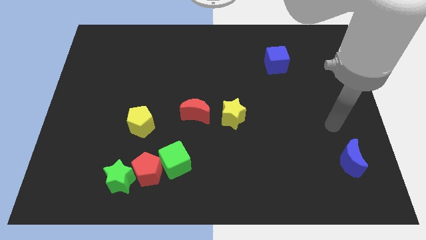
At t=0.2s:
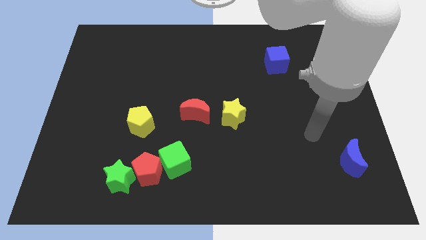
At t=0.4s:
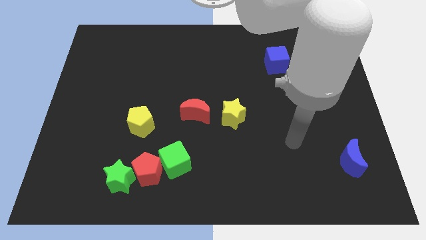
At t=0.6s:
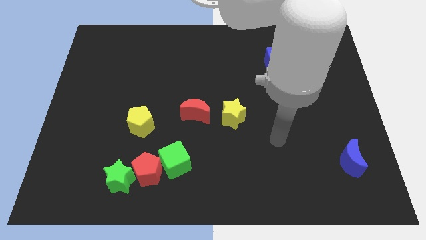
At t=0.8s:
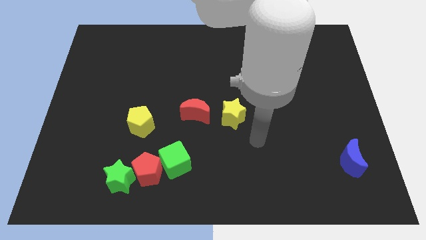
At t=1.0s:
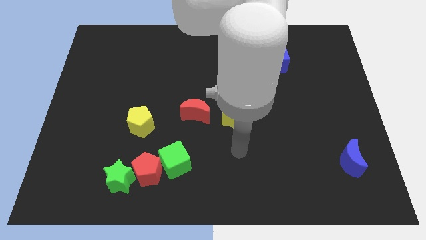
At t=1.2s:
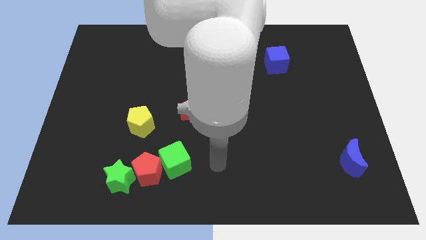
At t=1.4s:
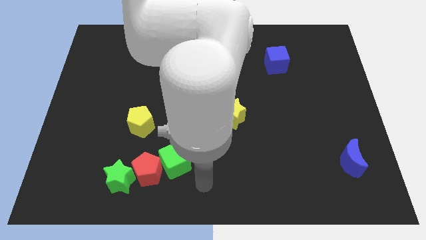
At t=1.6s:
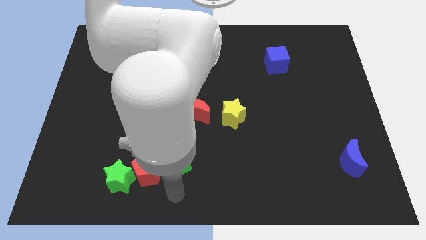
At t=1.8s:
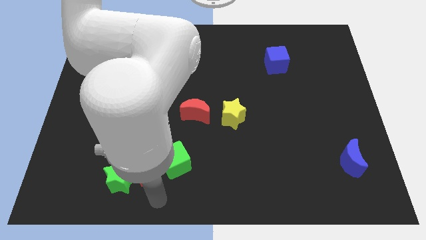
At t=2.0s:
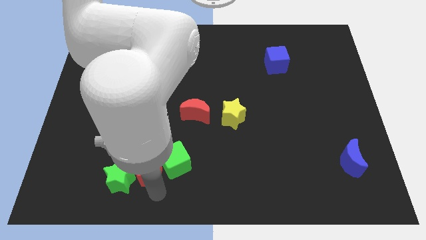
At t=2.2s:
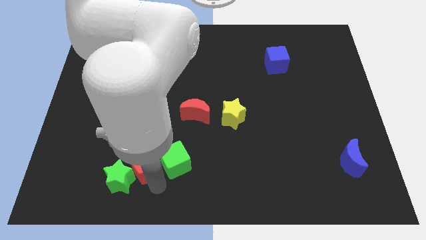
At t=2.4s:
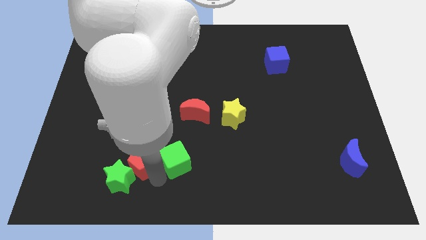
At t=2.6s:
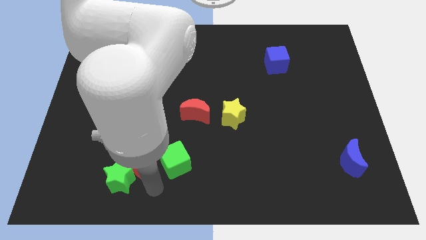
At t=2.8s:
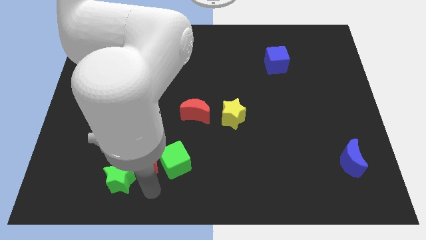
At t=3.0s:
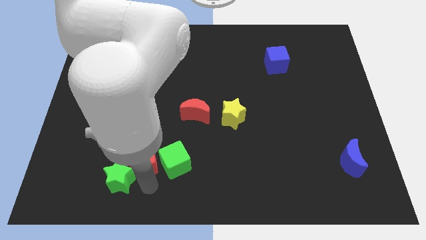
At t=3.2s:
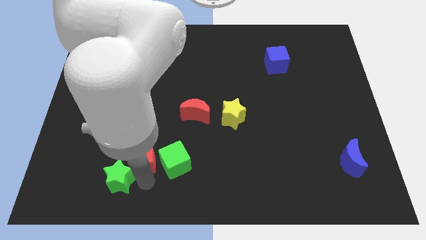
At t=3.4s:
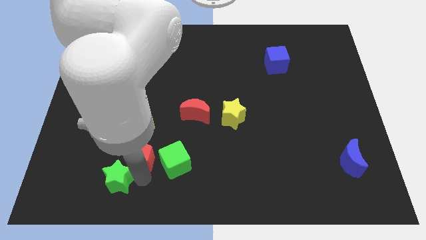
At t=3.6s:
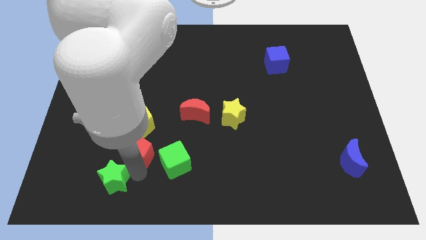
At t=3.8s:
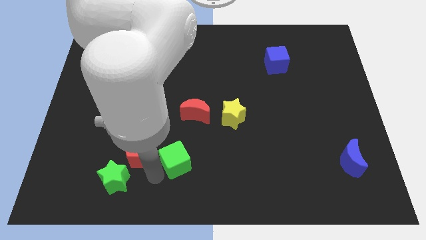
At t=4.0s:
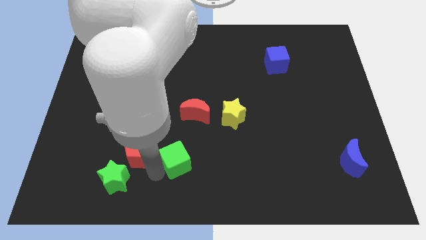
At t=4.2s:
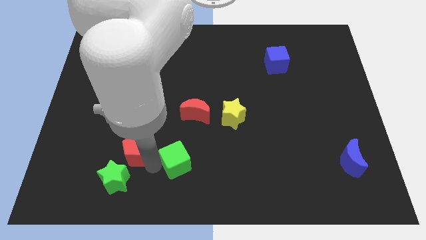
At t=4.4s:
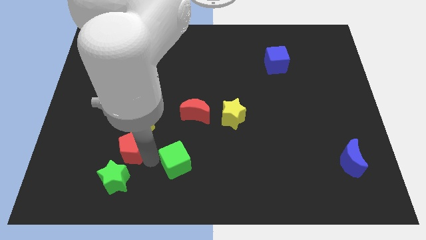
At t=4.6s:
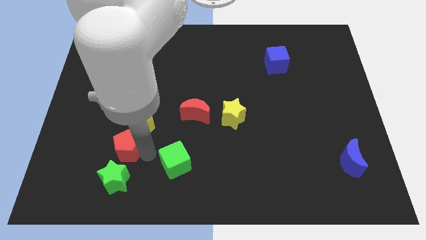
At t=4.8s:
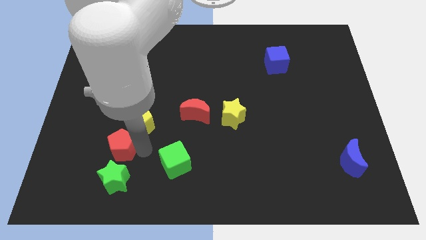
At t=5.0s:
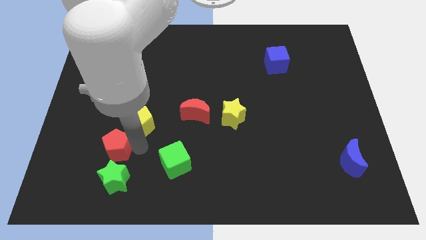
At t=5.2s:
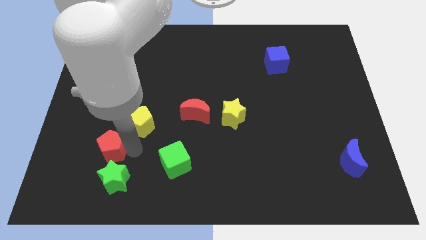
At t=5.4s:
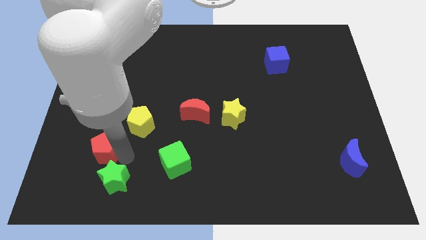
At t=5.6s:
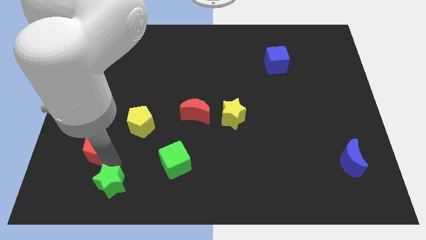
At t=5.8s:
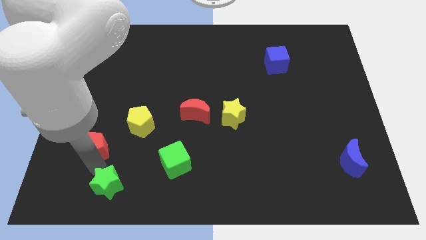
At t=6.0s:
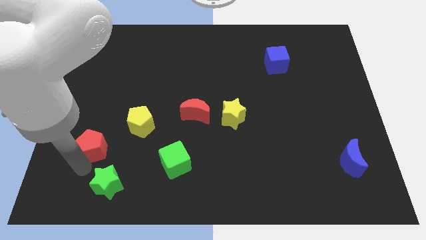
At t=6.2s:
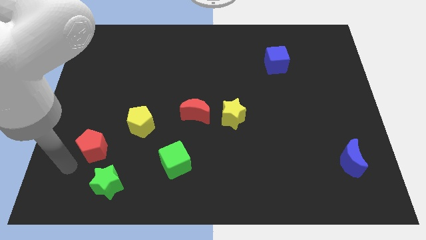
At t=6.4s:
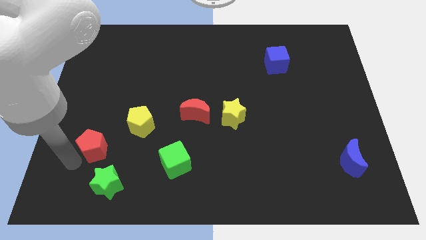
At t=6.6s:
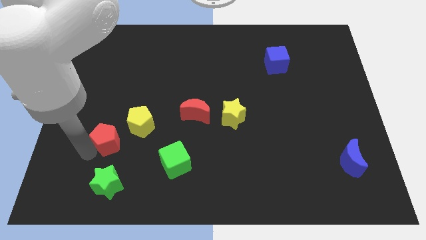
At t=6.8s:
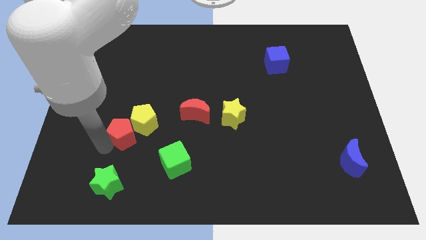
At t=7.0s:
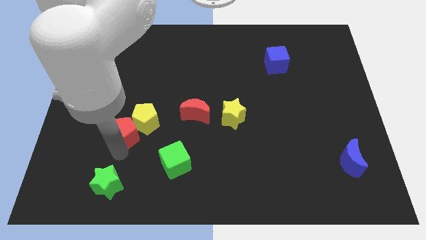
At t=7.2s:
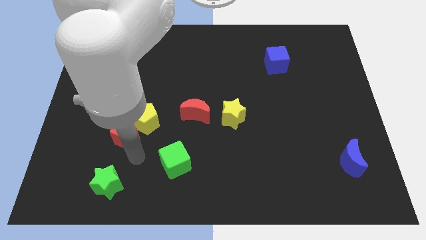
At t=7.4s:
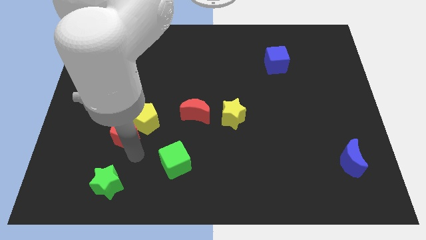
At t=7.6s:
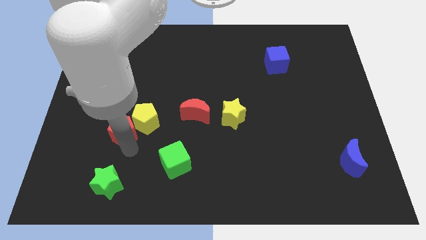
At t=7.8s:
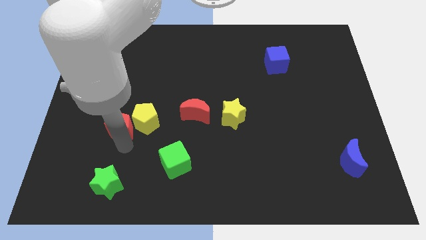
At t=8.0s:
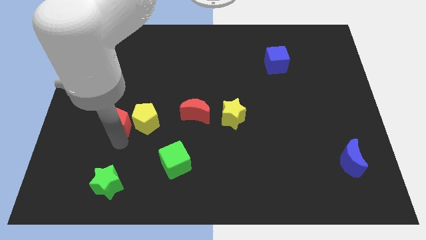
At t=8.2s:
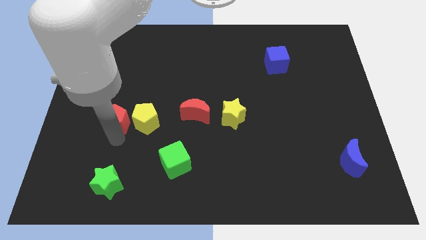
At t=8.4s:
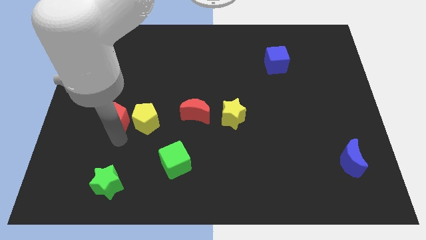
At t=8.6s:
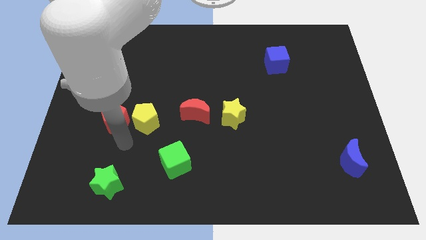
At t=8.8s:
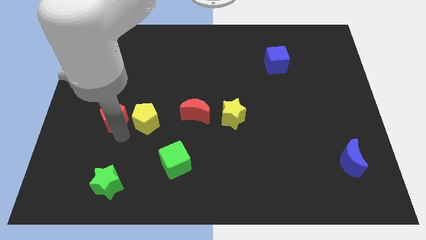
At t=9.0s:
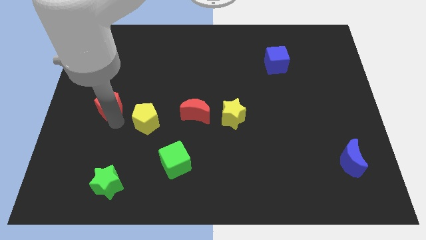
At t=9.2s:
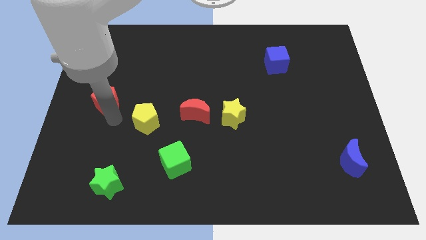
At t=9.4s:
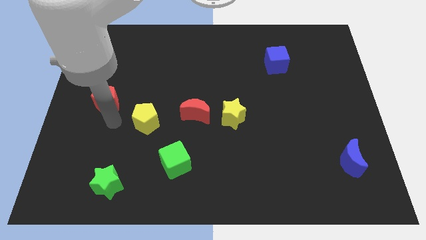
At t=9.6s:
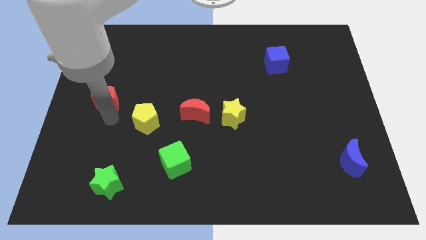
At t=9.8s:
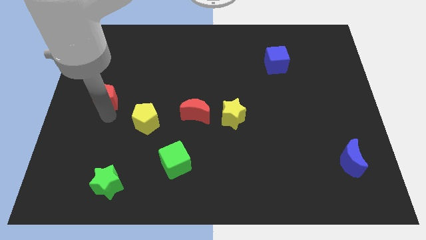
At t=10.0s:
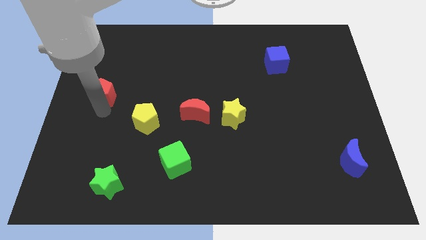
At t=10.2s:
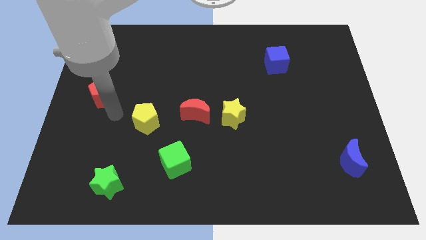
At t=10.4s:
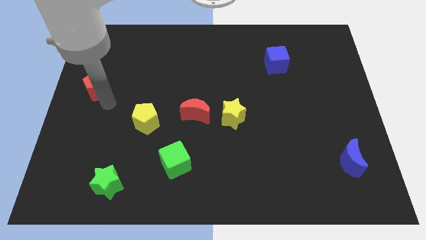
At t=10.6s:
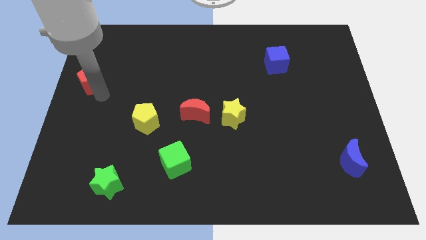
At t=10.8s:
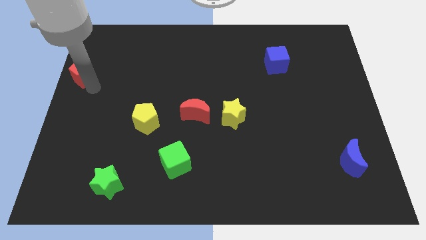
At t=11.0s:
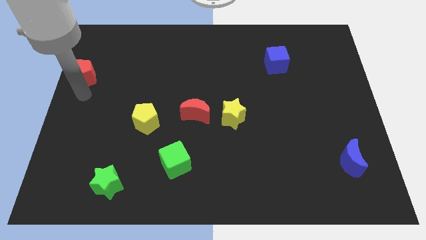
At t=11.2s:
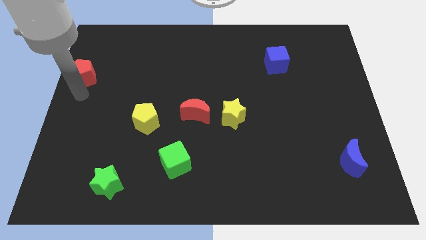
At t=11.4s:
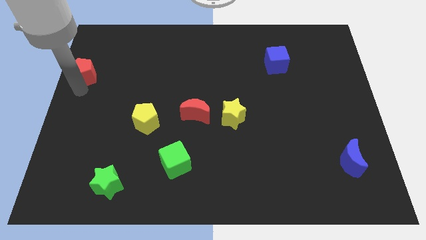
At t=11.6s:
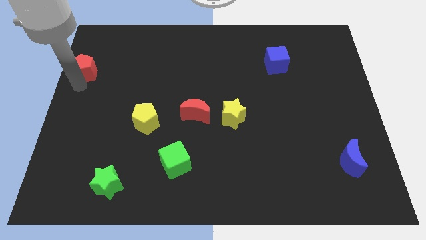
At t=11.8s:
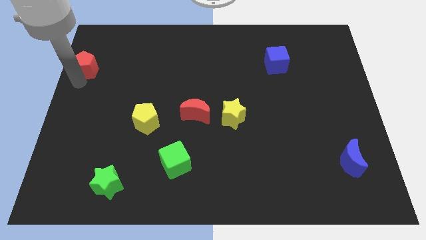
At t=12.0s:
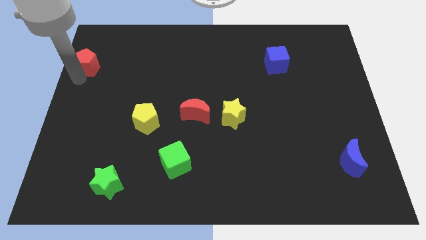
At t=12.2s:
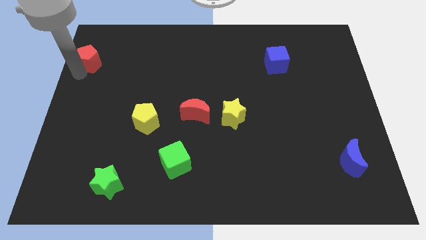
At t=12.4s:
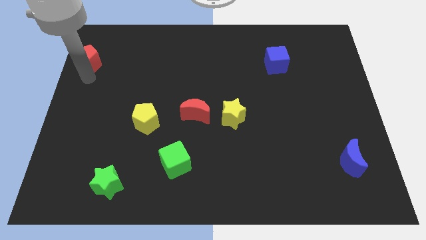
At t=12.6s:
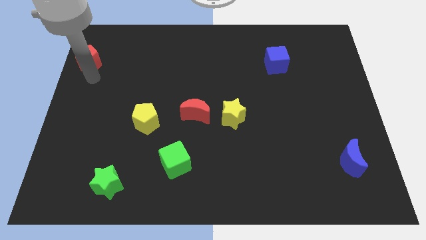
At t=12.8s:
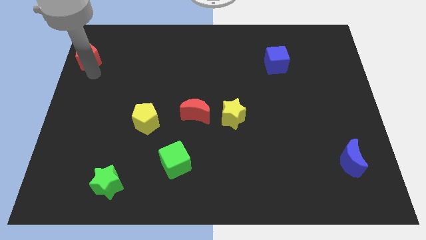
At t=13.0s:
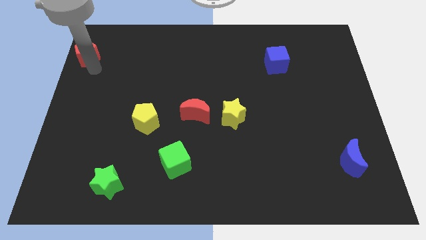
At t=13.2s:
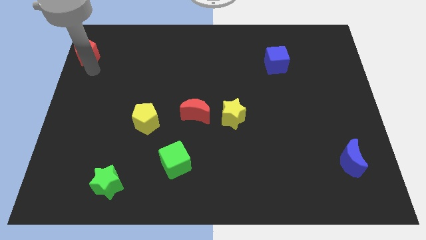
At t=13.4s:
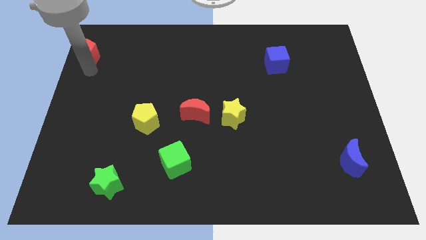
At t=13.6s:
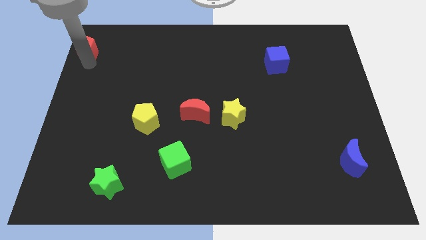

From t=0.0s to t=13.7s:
slide the red pentagon to the upper left corner
